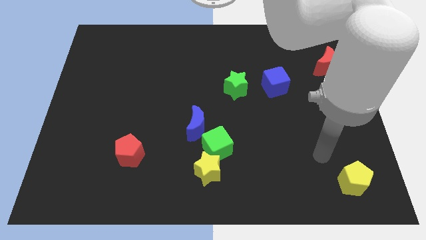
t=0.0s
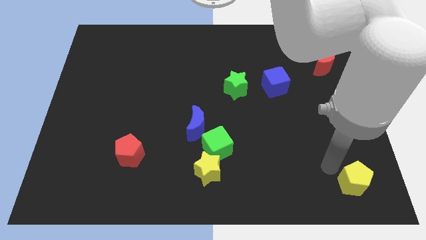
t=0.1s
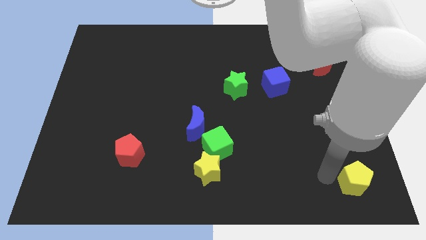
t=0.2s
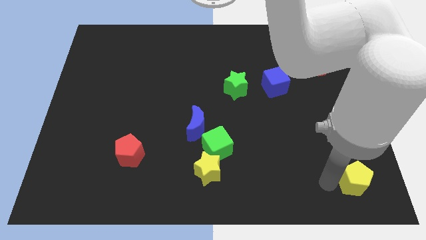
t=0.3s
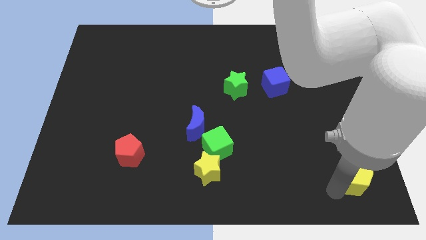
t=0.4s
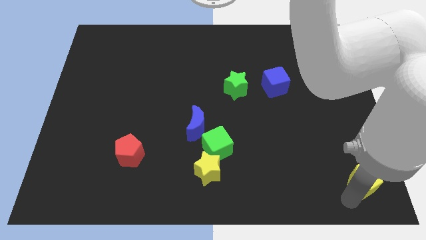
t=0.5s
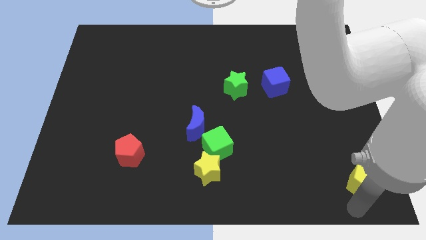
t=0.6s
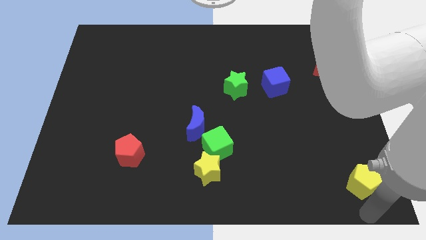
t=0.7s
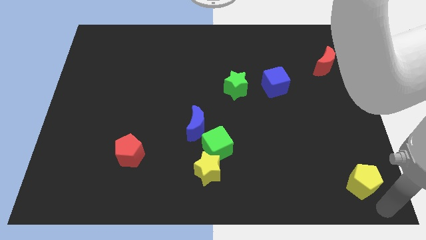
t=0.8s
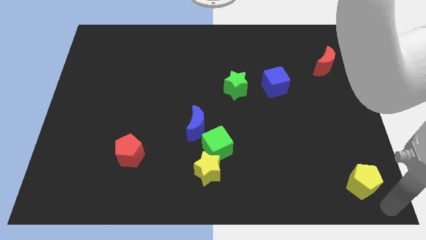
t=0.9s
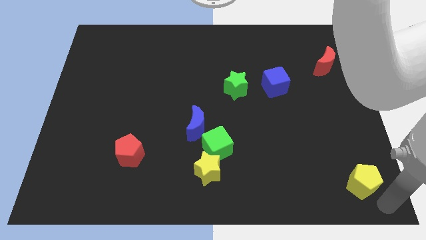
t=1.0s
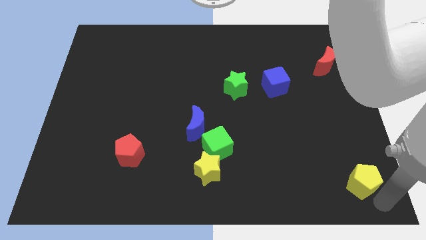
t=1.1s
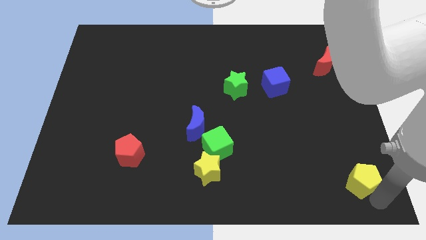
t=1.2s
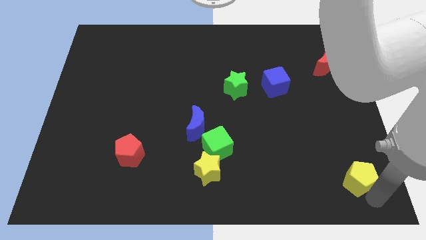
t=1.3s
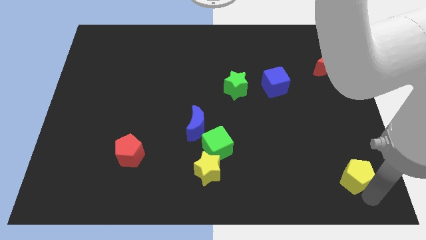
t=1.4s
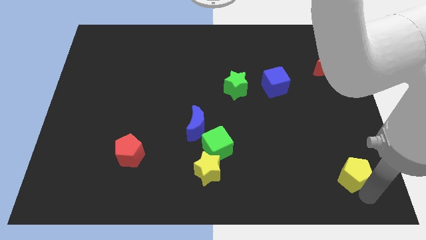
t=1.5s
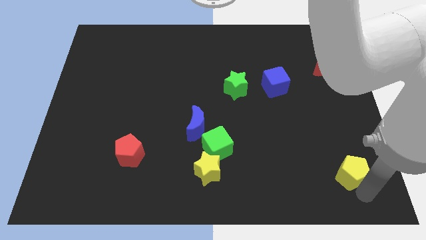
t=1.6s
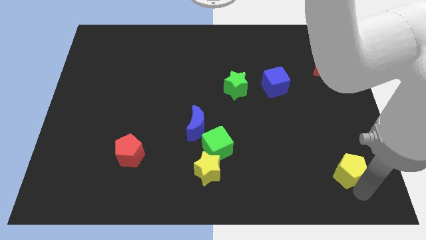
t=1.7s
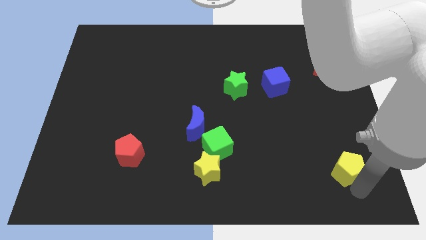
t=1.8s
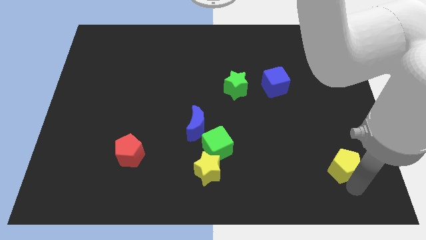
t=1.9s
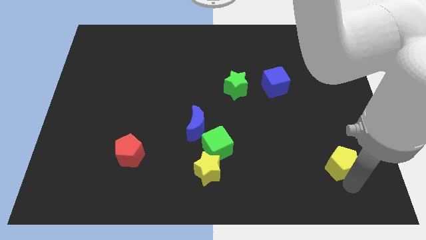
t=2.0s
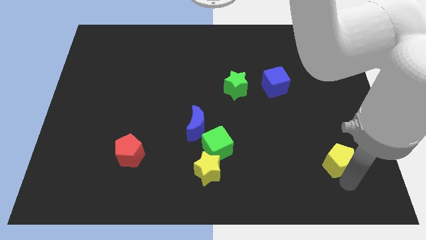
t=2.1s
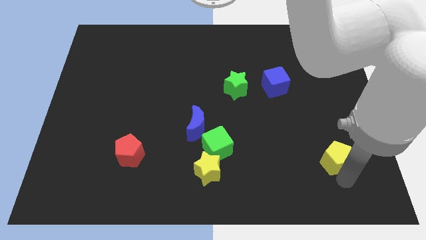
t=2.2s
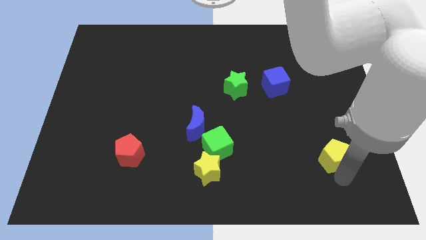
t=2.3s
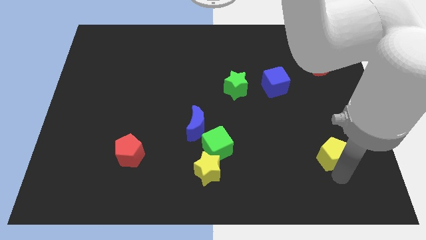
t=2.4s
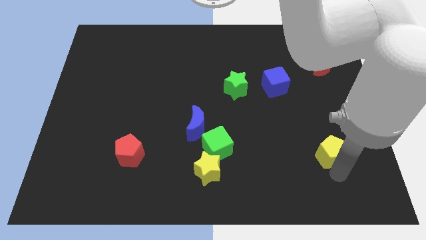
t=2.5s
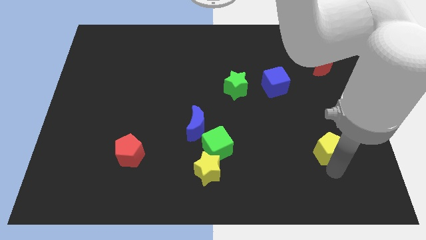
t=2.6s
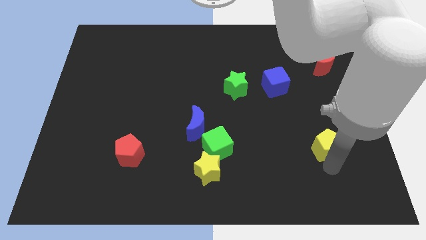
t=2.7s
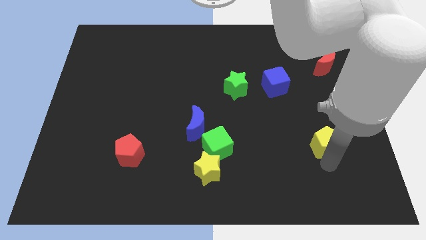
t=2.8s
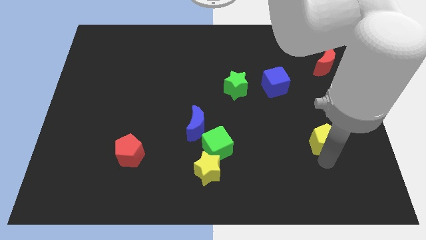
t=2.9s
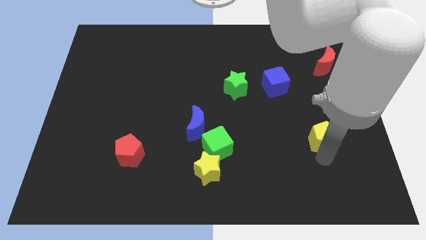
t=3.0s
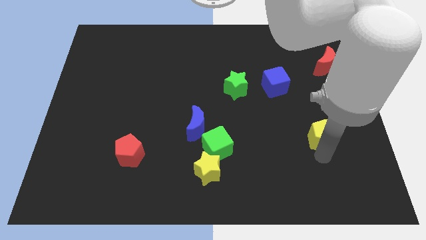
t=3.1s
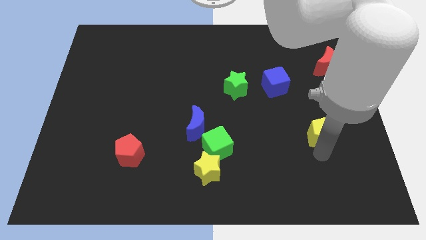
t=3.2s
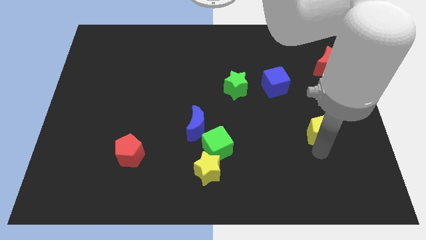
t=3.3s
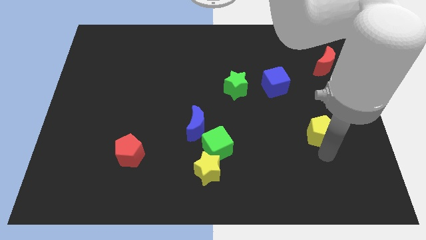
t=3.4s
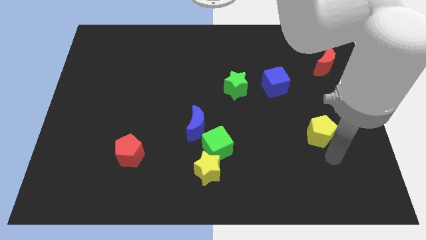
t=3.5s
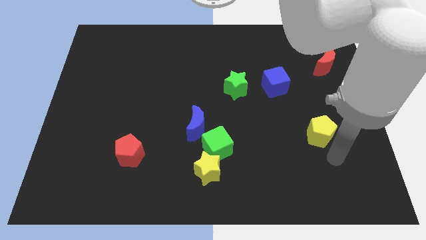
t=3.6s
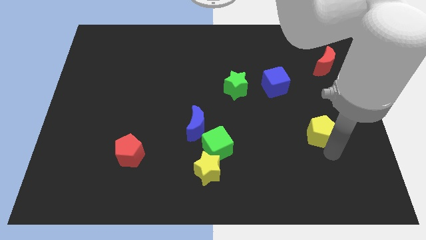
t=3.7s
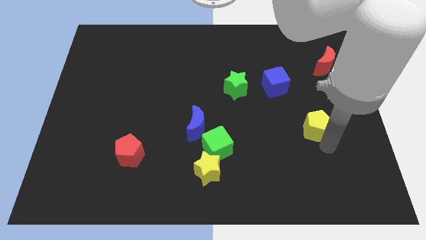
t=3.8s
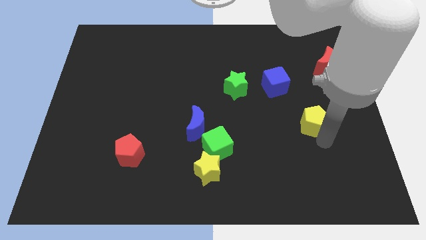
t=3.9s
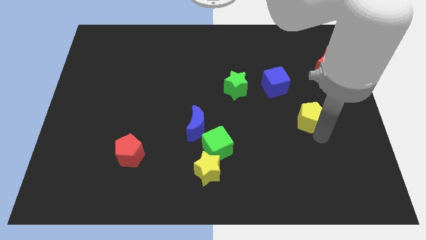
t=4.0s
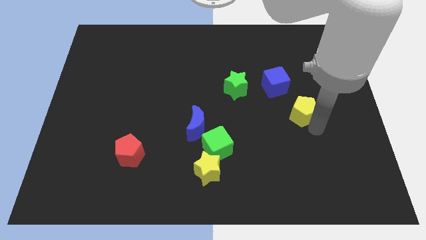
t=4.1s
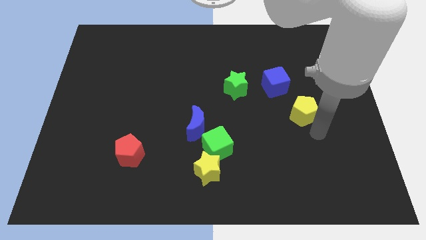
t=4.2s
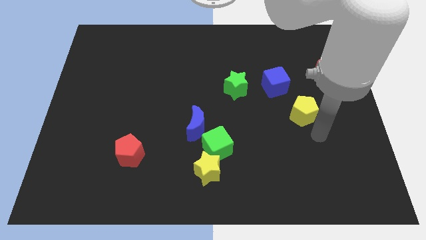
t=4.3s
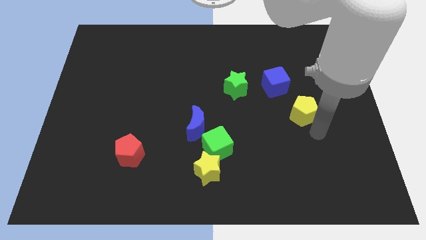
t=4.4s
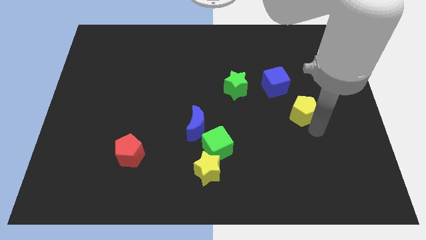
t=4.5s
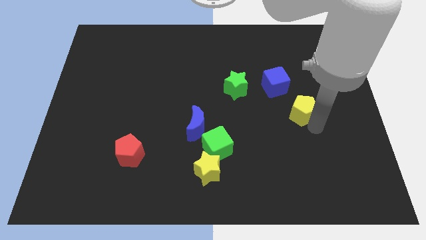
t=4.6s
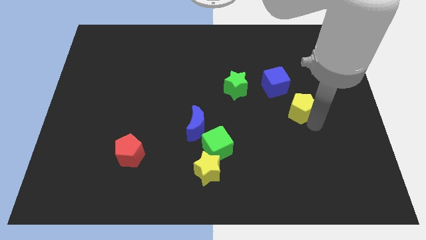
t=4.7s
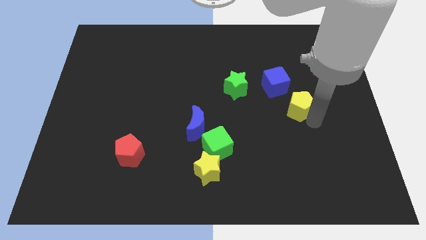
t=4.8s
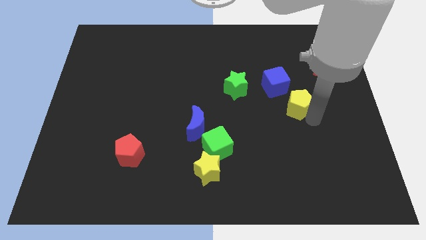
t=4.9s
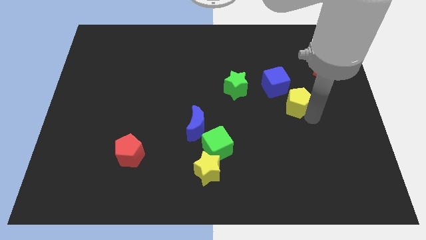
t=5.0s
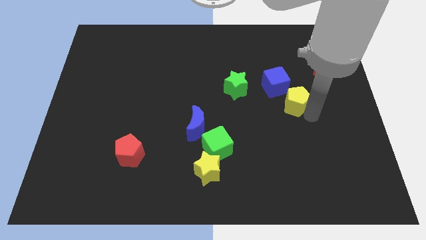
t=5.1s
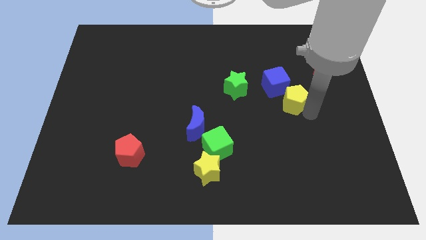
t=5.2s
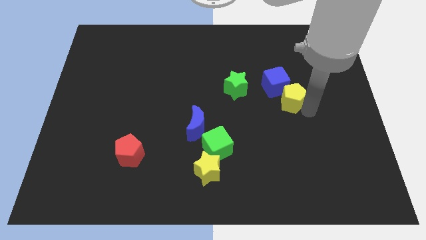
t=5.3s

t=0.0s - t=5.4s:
slide the yellow pentagon to the blue cube
